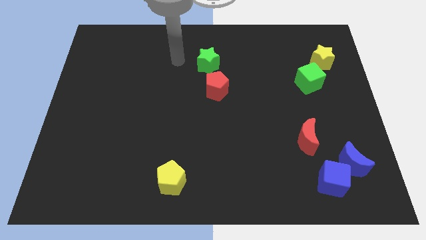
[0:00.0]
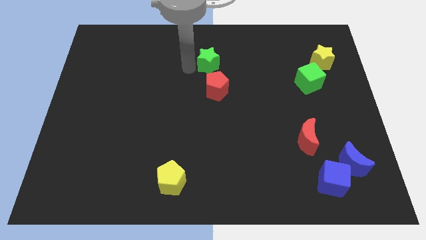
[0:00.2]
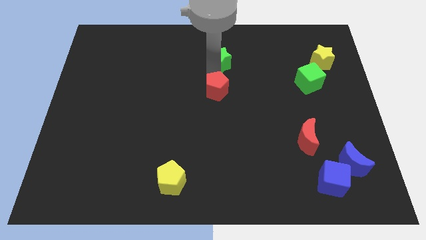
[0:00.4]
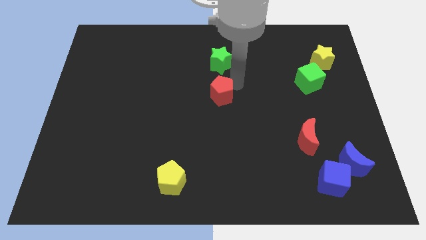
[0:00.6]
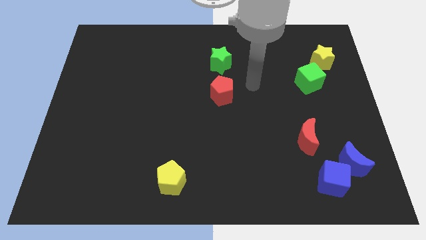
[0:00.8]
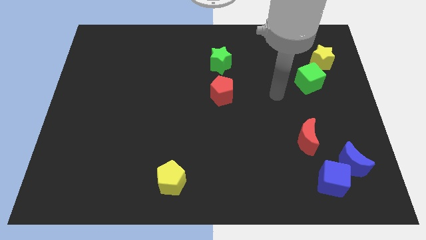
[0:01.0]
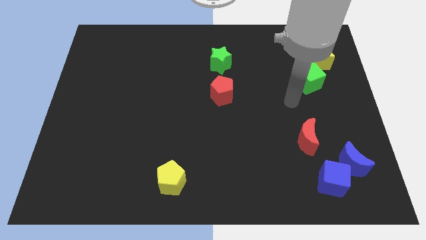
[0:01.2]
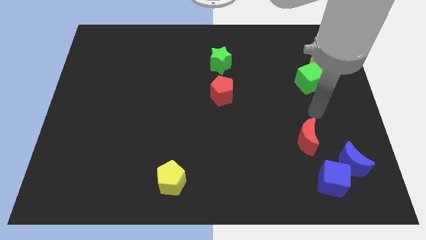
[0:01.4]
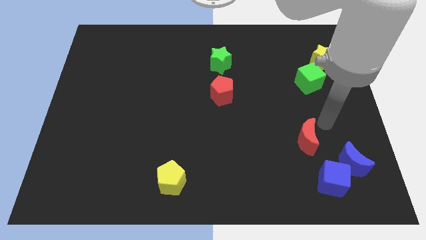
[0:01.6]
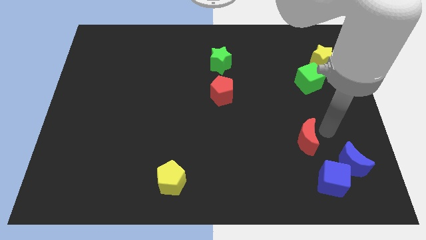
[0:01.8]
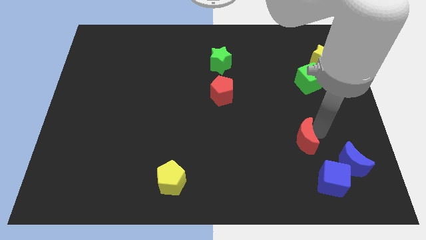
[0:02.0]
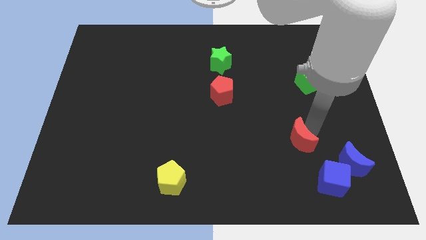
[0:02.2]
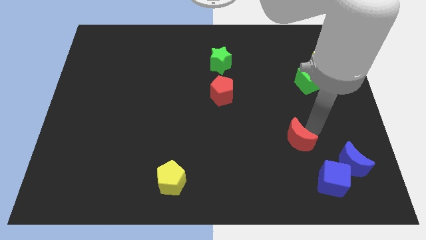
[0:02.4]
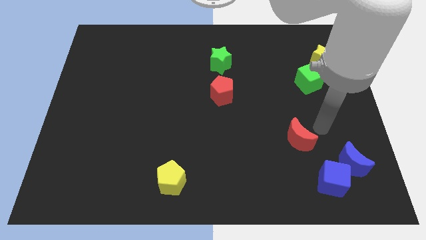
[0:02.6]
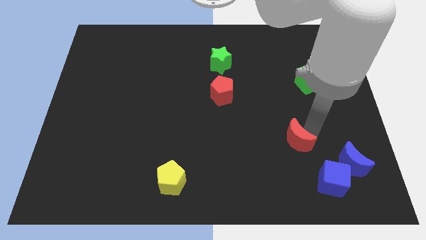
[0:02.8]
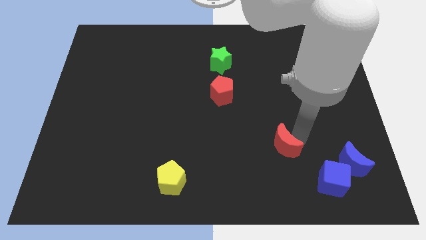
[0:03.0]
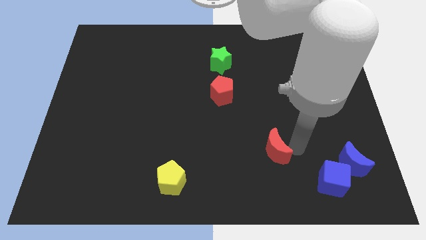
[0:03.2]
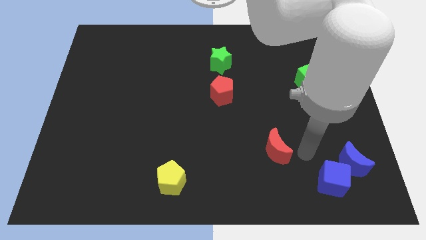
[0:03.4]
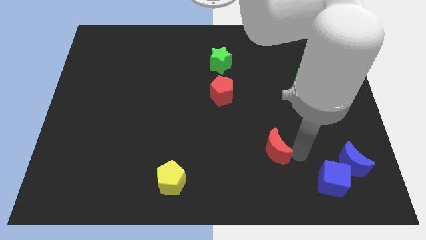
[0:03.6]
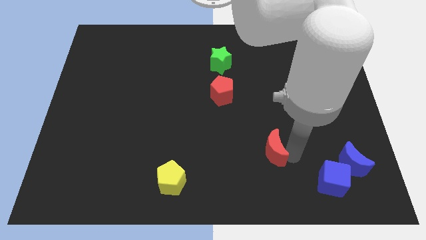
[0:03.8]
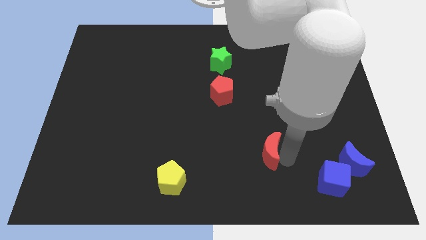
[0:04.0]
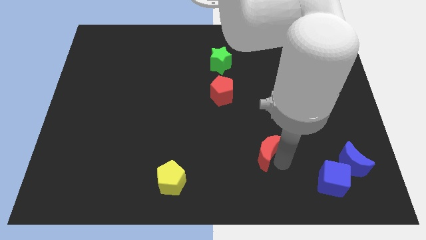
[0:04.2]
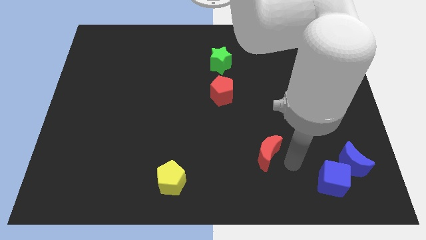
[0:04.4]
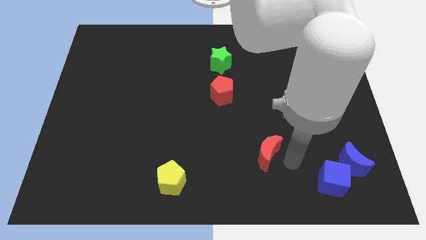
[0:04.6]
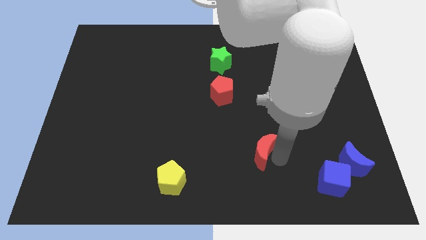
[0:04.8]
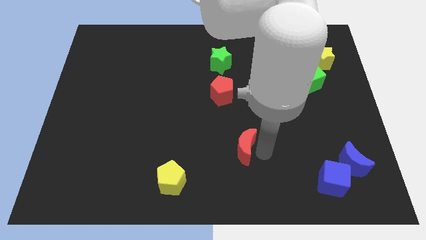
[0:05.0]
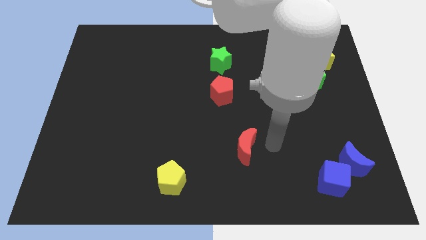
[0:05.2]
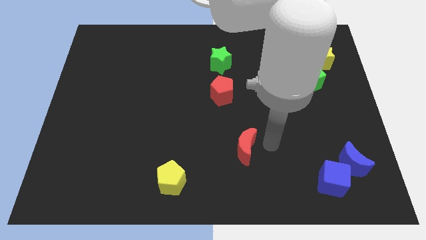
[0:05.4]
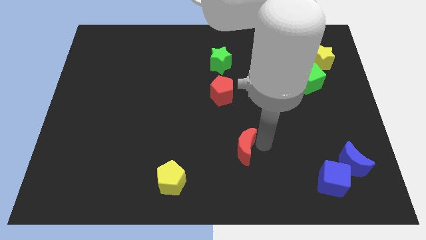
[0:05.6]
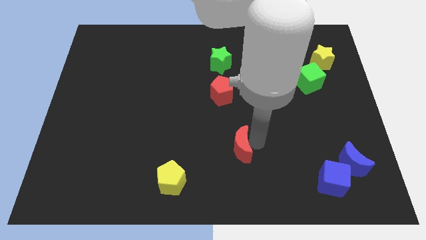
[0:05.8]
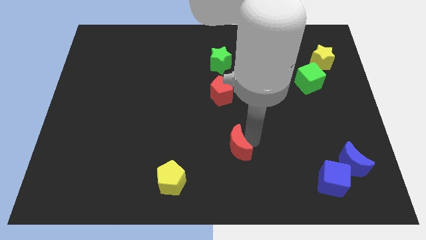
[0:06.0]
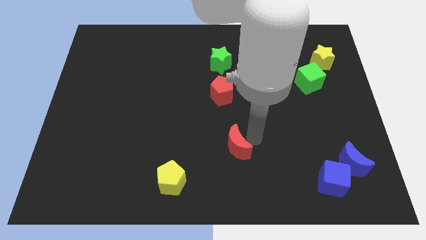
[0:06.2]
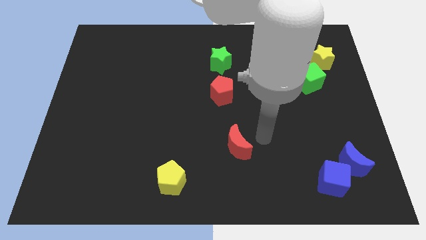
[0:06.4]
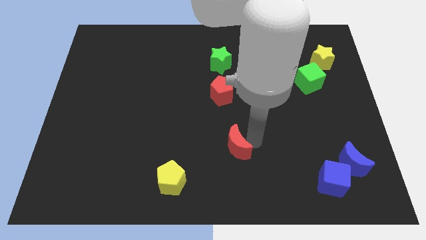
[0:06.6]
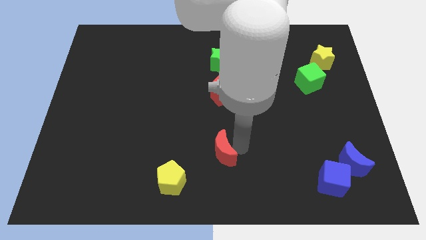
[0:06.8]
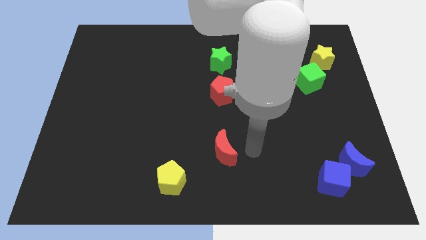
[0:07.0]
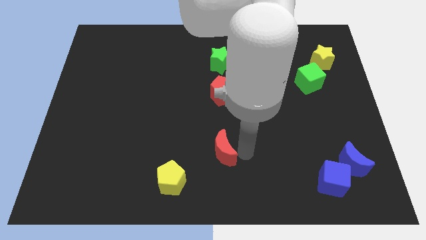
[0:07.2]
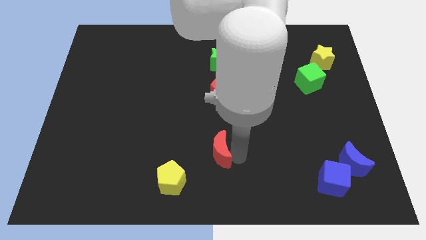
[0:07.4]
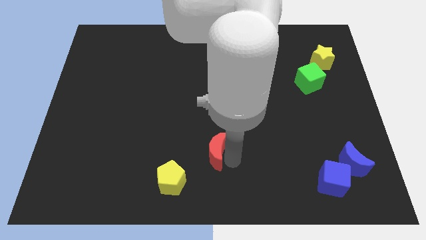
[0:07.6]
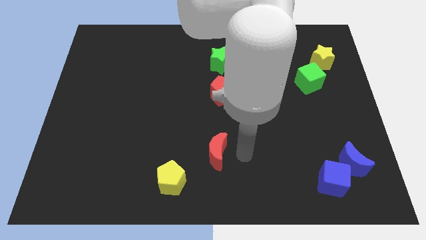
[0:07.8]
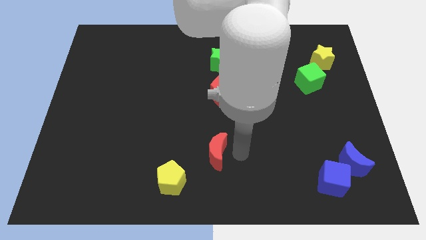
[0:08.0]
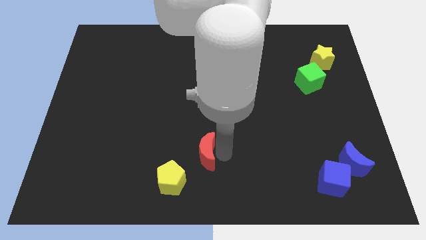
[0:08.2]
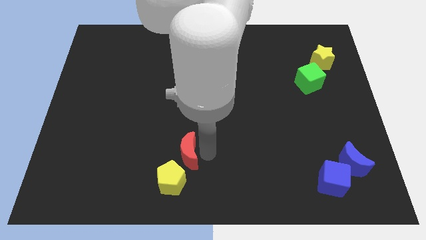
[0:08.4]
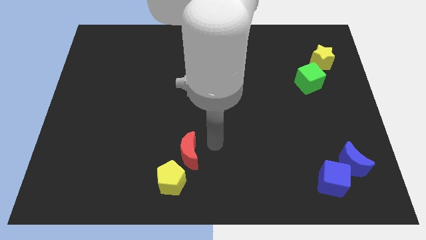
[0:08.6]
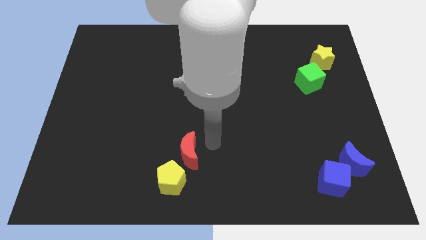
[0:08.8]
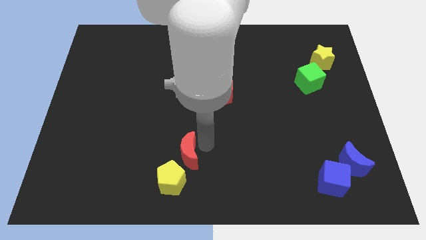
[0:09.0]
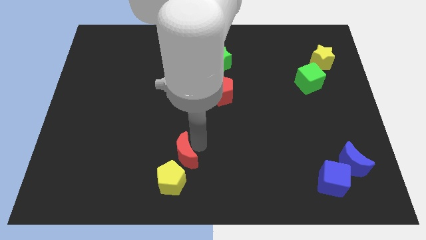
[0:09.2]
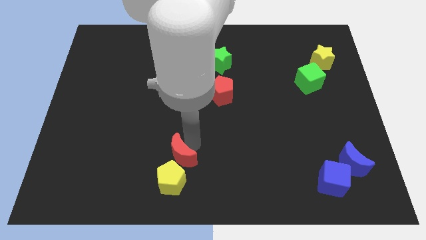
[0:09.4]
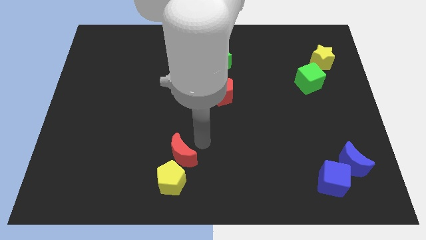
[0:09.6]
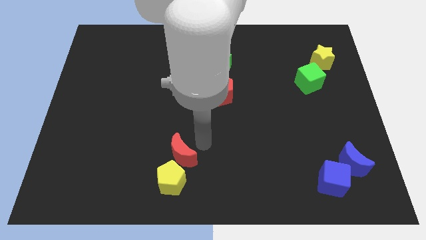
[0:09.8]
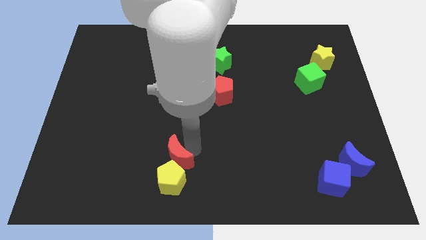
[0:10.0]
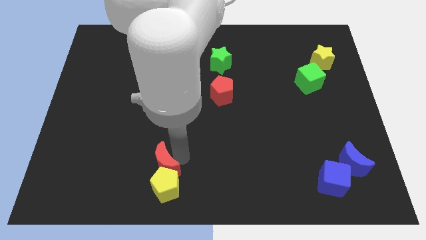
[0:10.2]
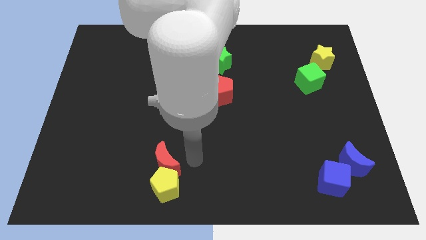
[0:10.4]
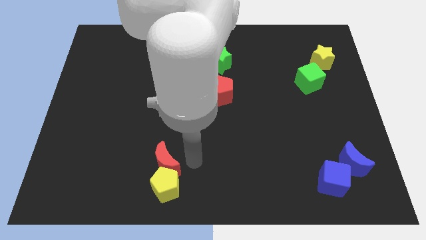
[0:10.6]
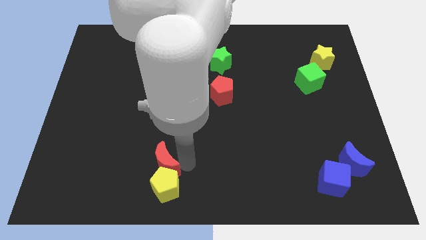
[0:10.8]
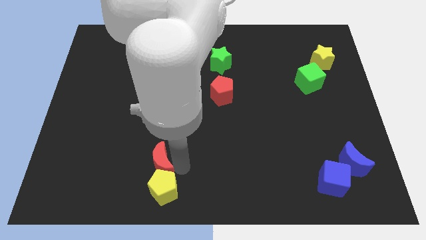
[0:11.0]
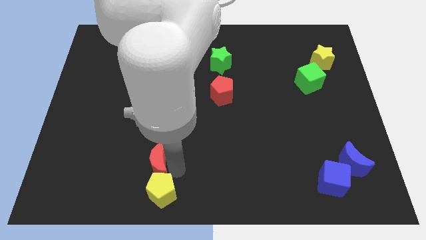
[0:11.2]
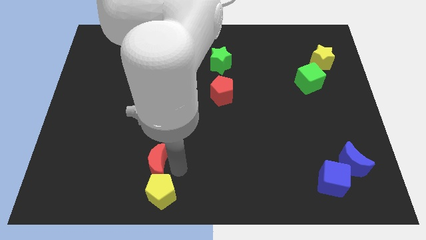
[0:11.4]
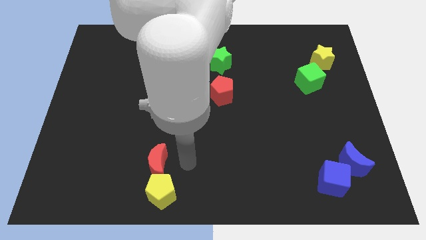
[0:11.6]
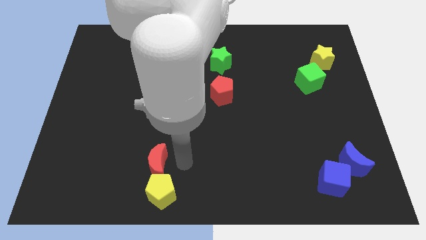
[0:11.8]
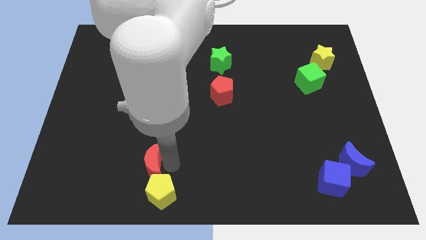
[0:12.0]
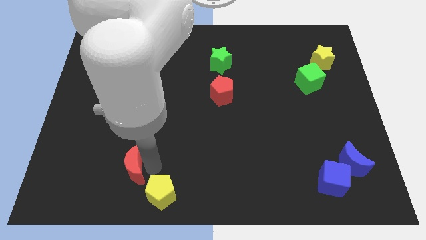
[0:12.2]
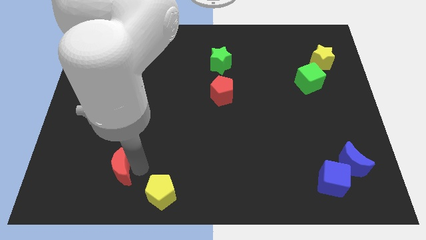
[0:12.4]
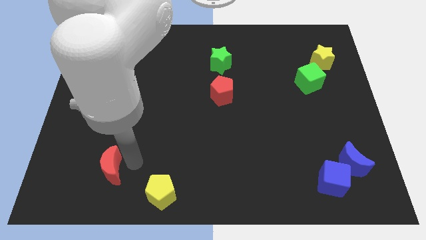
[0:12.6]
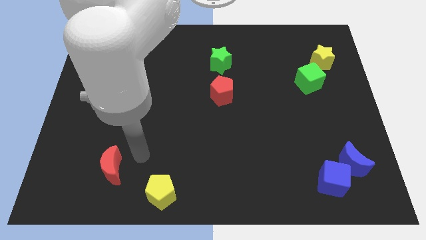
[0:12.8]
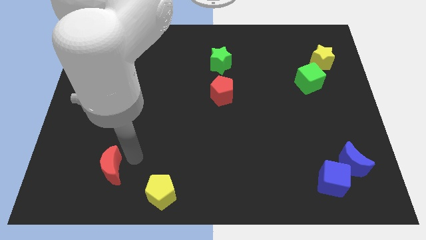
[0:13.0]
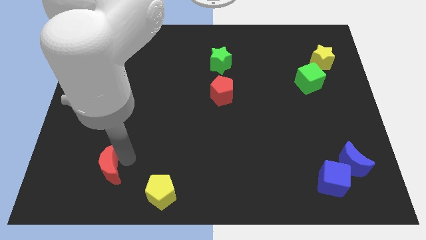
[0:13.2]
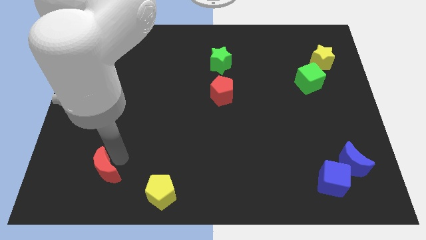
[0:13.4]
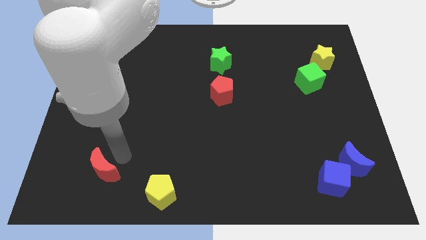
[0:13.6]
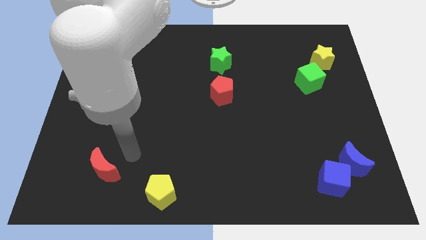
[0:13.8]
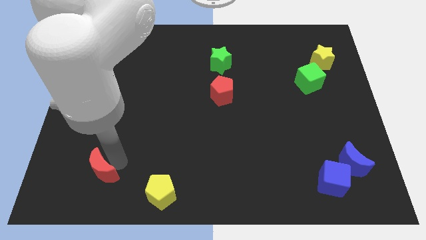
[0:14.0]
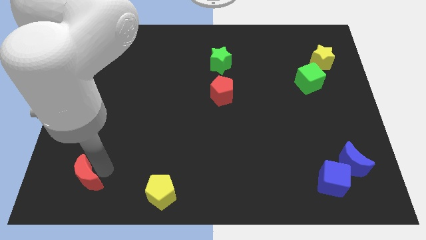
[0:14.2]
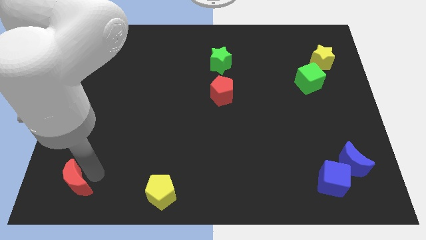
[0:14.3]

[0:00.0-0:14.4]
move the red moon to the bottom left
